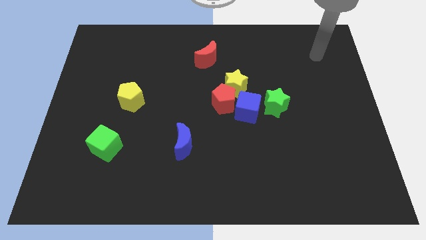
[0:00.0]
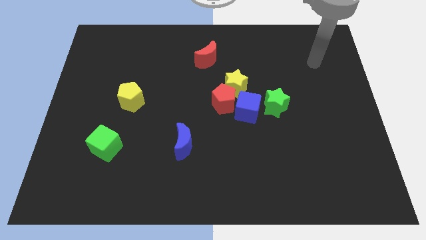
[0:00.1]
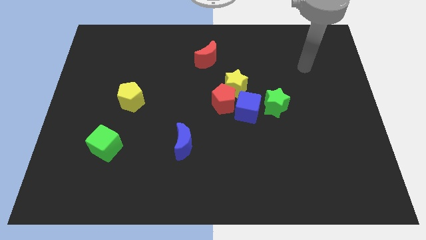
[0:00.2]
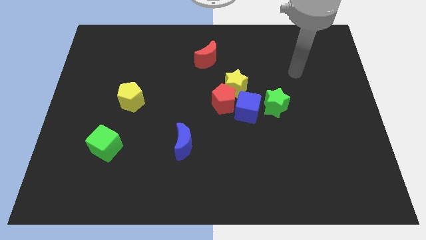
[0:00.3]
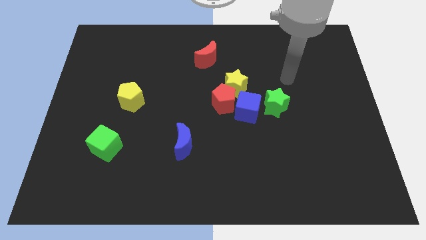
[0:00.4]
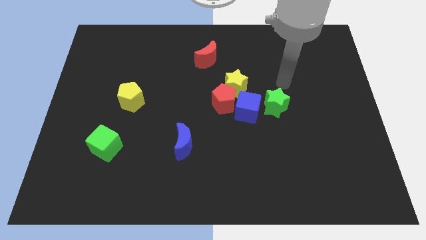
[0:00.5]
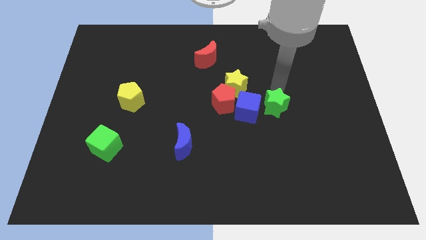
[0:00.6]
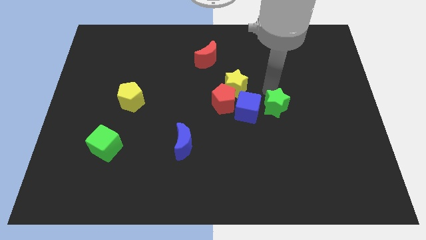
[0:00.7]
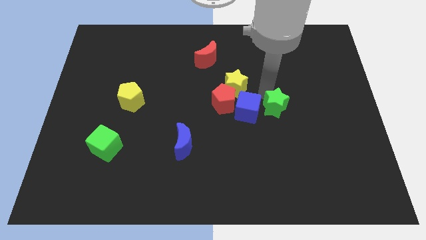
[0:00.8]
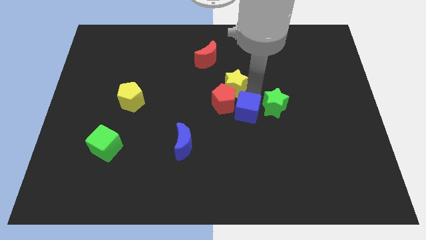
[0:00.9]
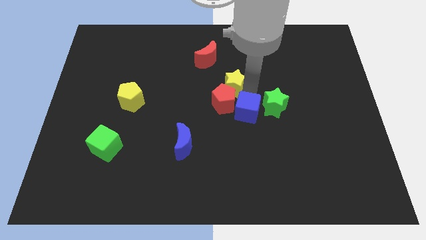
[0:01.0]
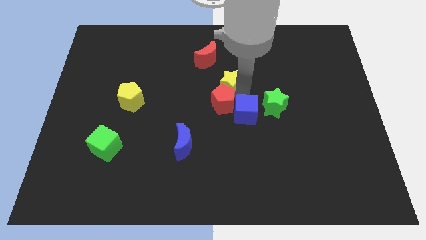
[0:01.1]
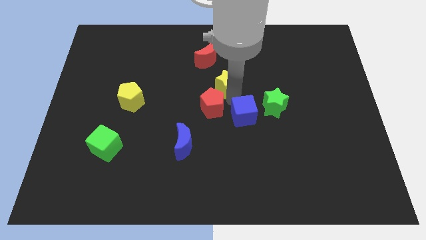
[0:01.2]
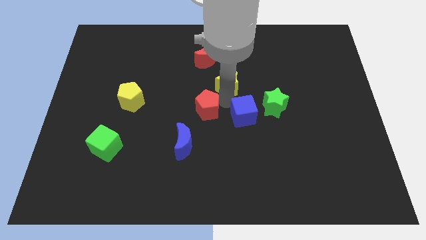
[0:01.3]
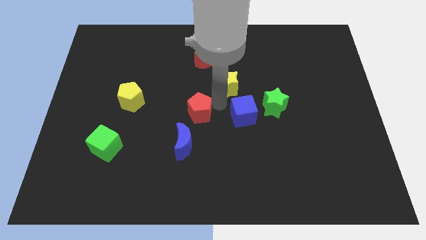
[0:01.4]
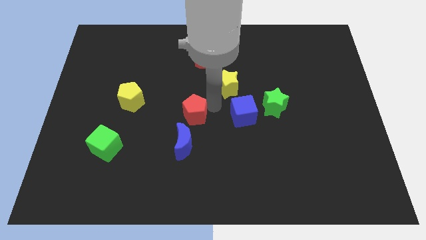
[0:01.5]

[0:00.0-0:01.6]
pull the red pentagon apart from the yellow star and blue cube

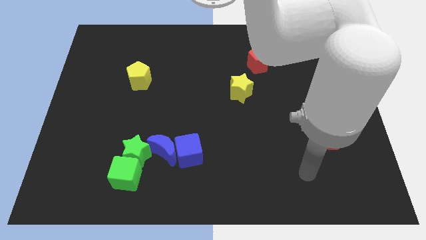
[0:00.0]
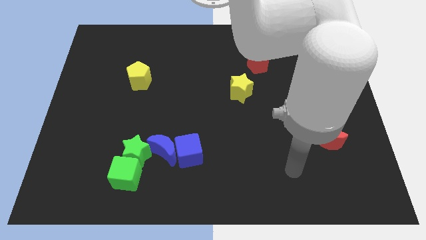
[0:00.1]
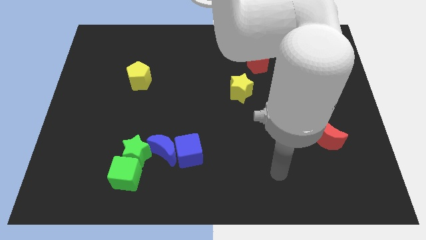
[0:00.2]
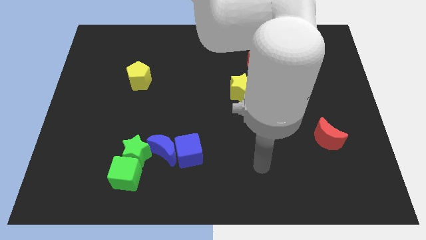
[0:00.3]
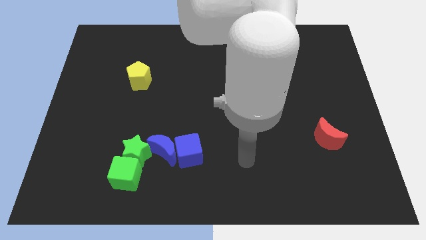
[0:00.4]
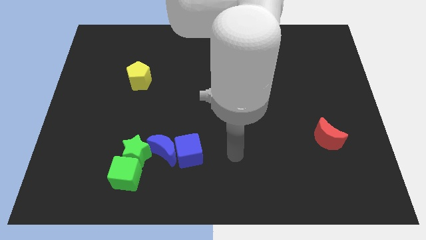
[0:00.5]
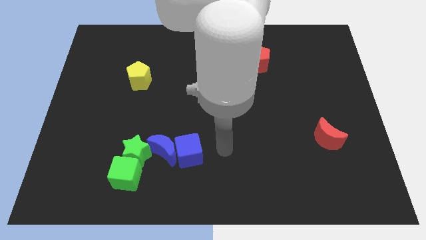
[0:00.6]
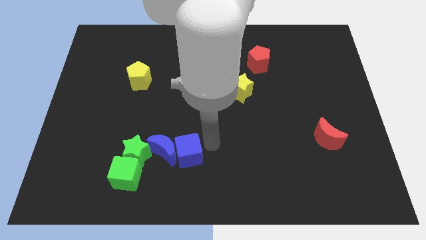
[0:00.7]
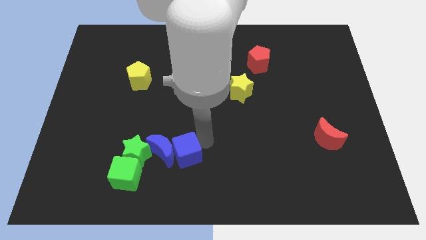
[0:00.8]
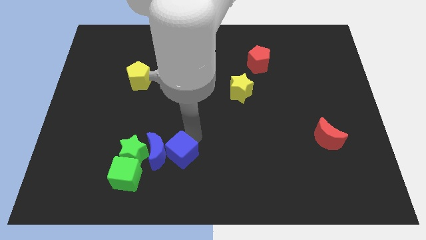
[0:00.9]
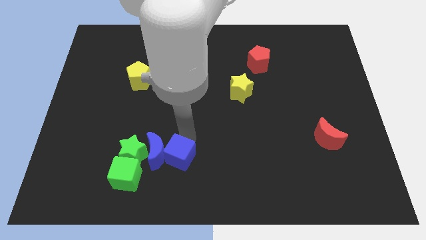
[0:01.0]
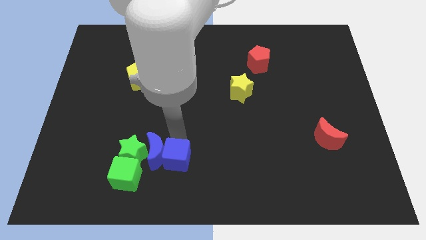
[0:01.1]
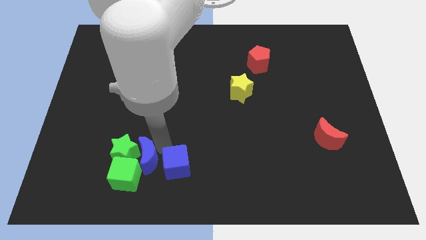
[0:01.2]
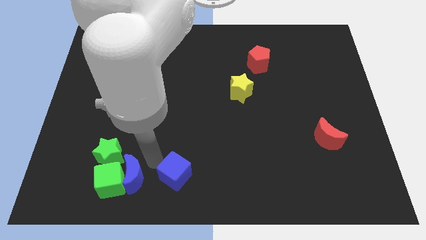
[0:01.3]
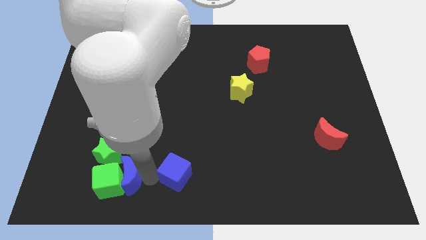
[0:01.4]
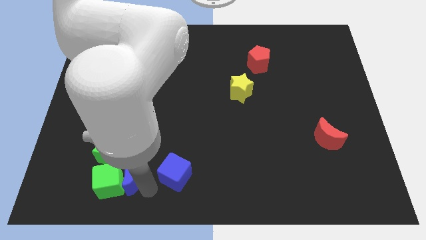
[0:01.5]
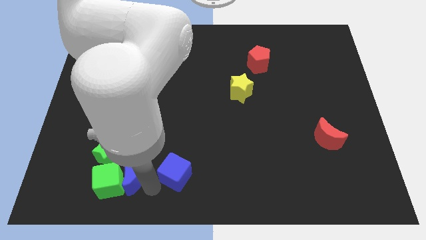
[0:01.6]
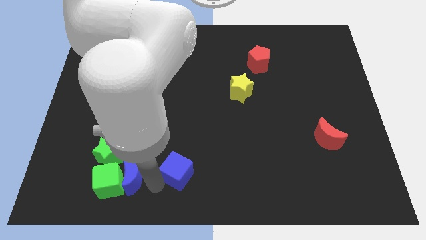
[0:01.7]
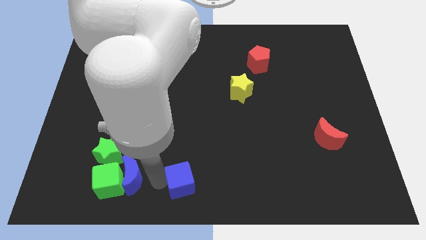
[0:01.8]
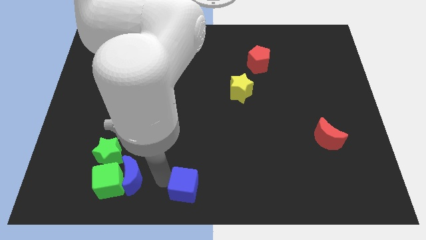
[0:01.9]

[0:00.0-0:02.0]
move the blue cube away from the blue moon

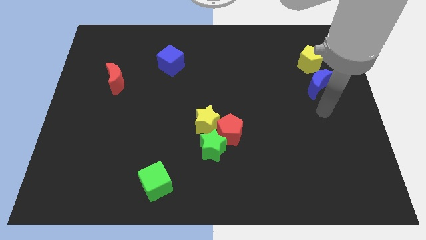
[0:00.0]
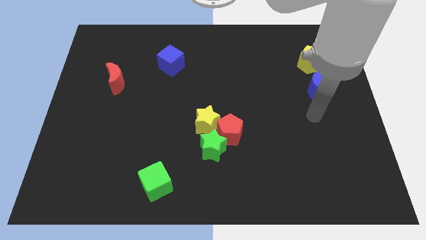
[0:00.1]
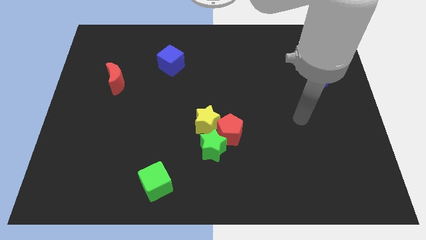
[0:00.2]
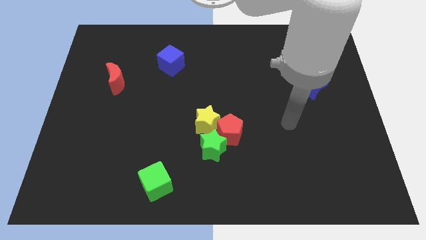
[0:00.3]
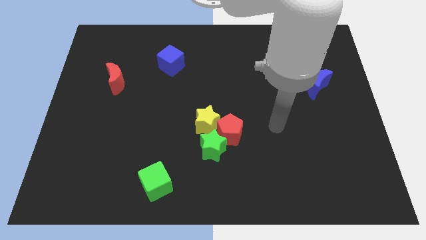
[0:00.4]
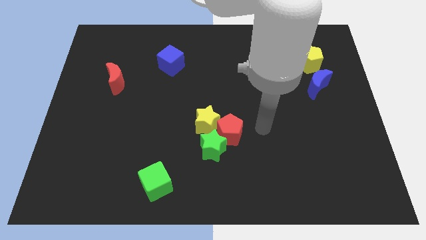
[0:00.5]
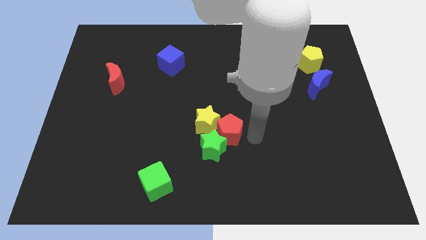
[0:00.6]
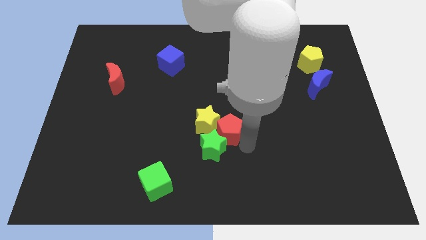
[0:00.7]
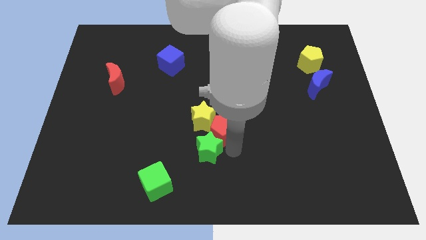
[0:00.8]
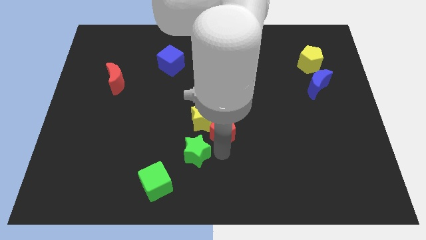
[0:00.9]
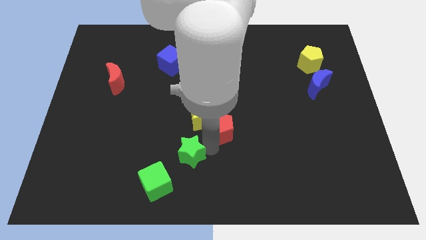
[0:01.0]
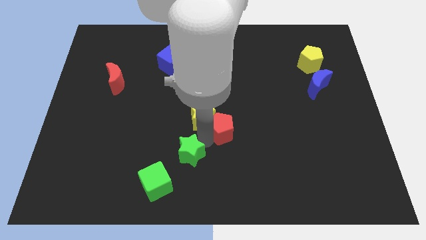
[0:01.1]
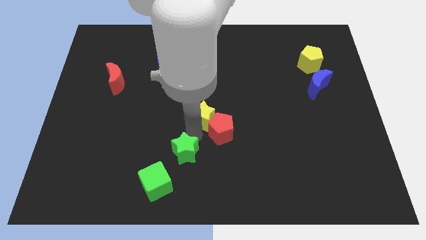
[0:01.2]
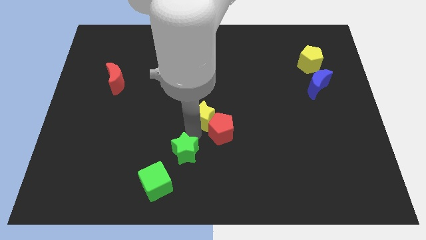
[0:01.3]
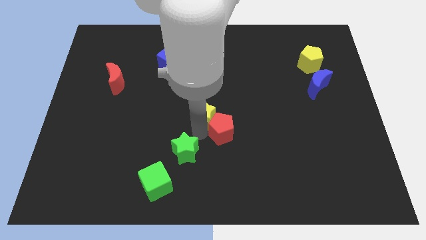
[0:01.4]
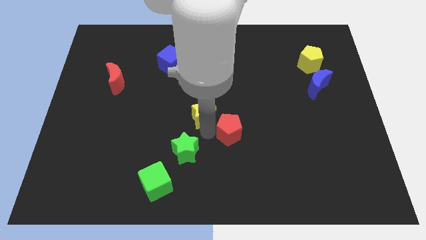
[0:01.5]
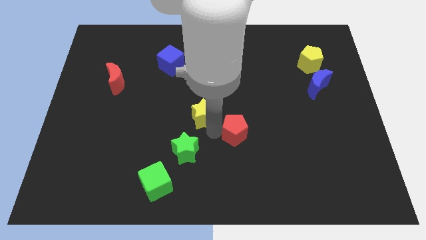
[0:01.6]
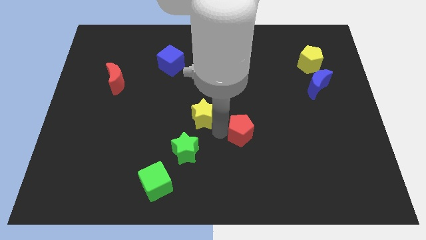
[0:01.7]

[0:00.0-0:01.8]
separate the red pentagon from the green star and yellow star

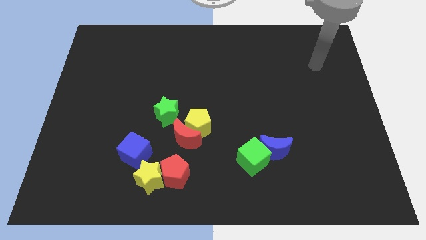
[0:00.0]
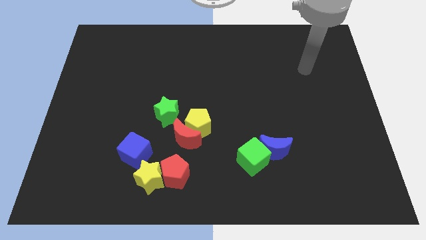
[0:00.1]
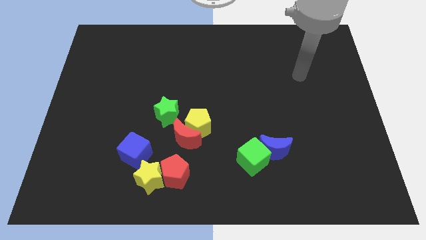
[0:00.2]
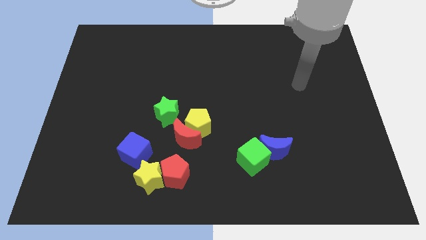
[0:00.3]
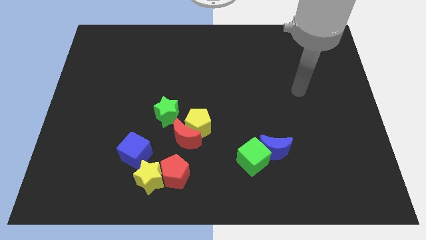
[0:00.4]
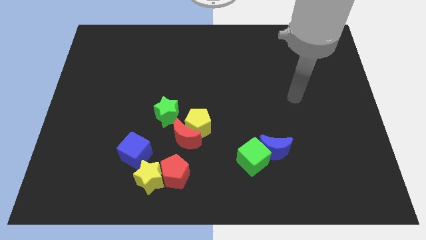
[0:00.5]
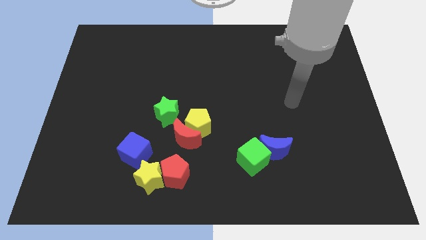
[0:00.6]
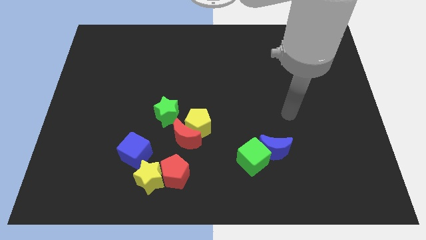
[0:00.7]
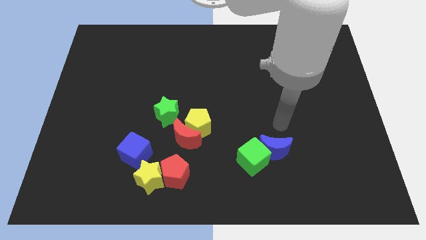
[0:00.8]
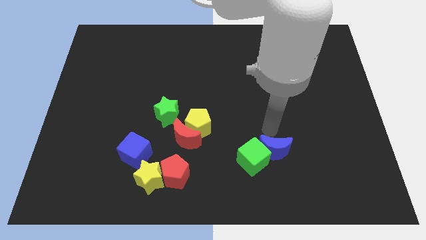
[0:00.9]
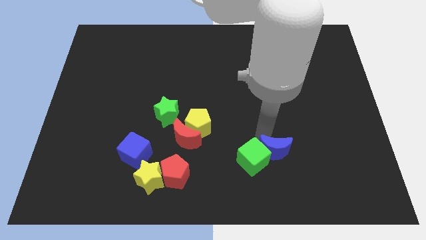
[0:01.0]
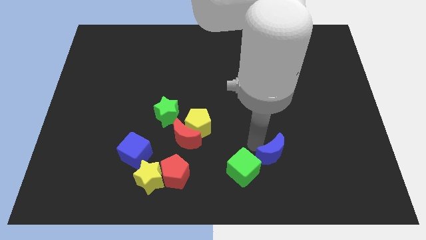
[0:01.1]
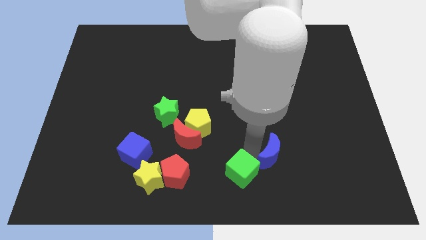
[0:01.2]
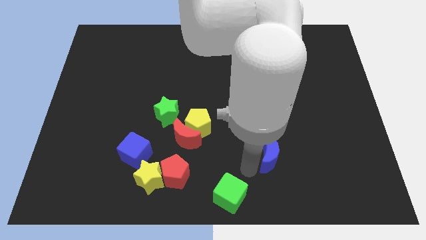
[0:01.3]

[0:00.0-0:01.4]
separate the blue moon from the green cube

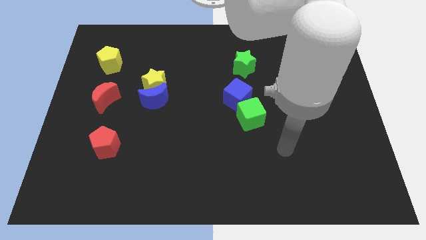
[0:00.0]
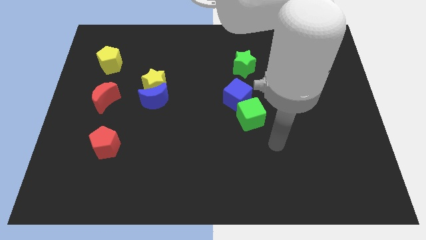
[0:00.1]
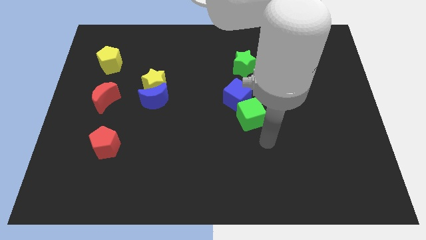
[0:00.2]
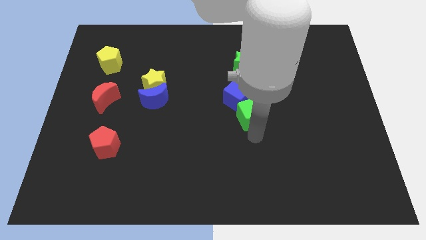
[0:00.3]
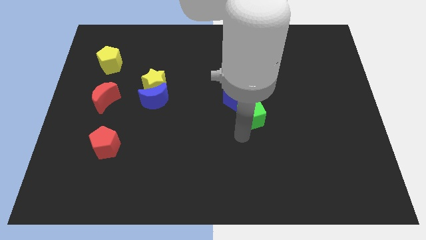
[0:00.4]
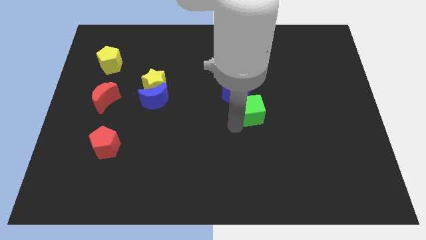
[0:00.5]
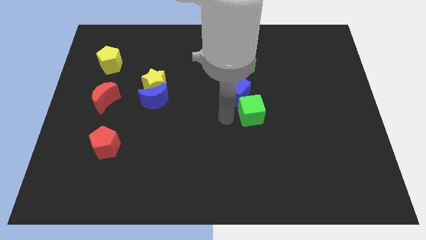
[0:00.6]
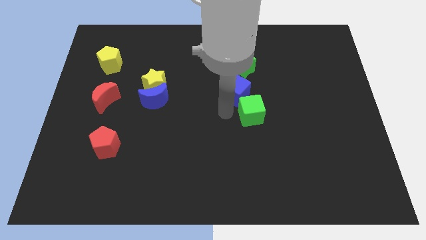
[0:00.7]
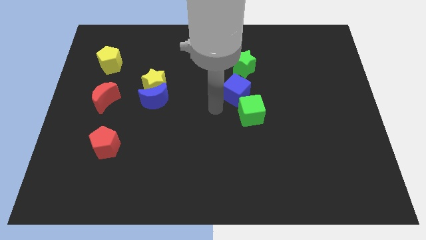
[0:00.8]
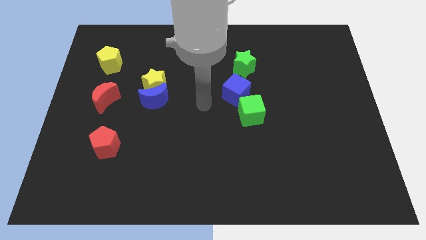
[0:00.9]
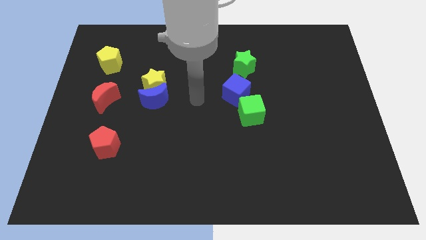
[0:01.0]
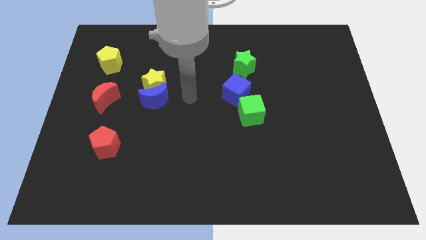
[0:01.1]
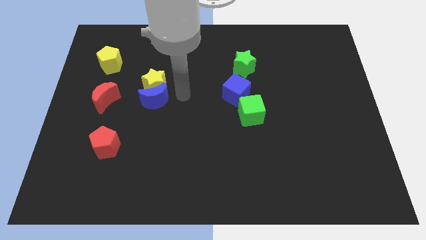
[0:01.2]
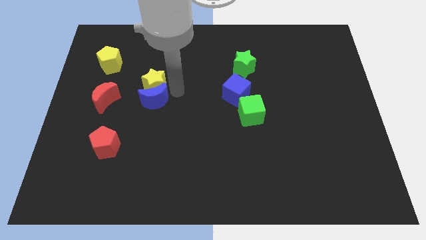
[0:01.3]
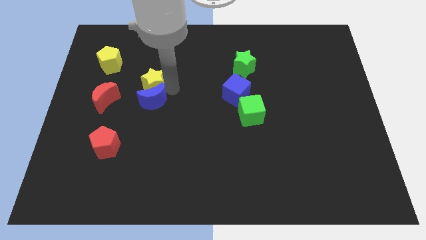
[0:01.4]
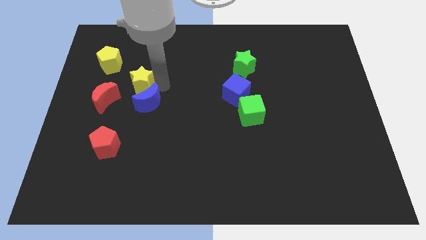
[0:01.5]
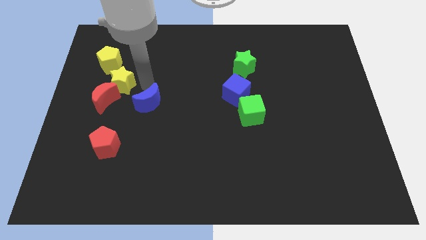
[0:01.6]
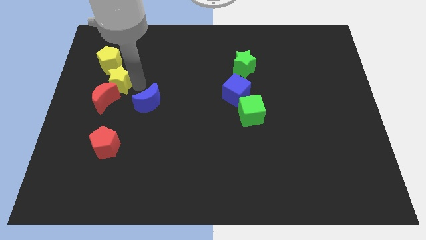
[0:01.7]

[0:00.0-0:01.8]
move the blue moon away from the yellow star

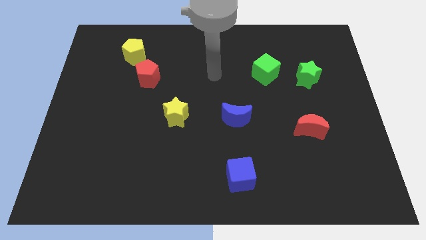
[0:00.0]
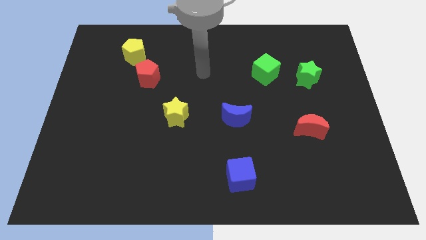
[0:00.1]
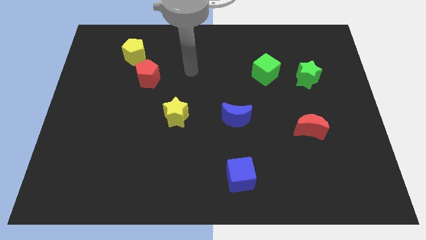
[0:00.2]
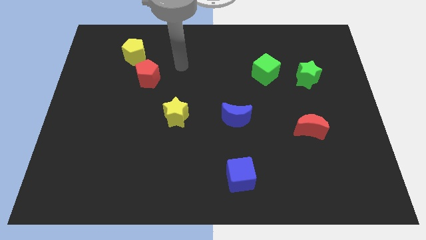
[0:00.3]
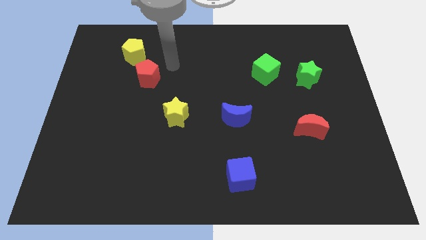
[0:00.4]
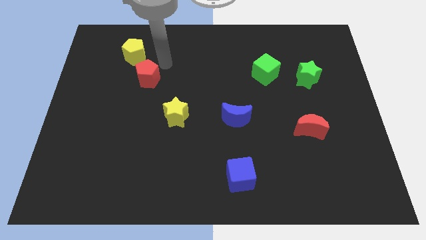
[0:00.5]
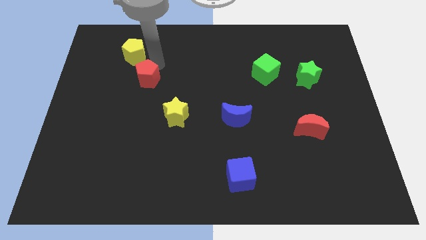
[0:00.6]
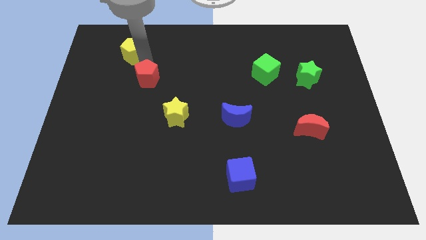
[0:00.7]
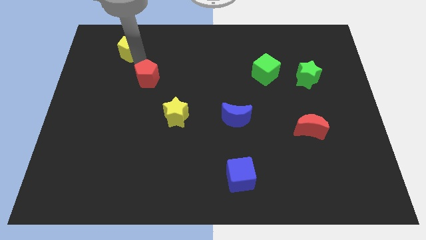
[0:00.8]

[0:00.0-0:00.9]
pull the red pentagon apart from the yellow pentagon
